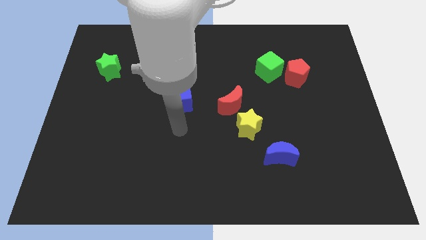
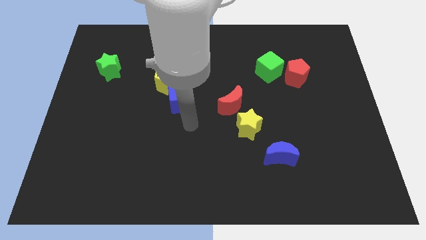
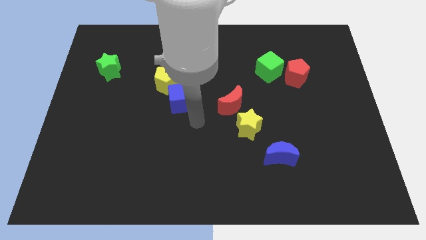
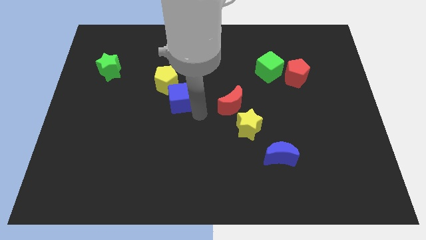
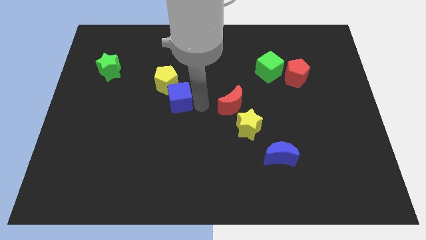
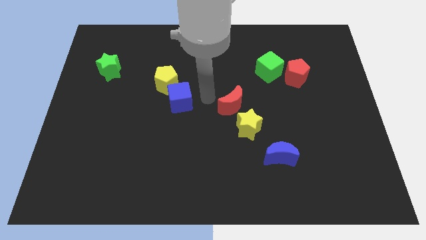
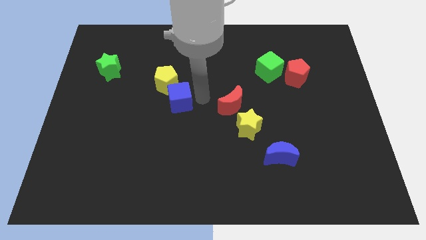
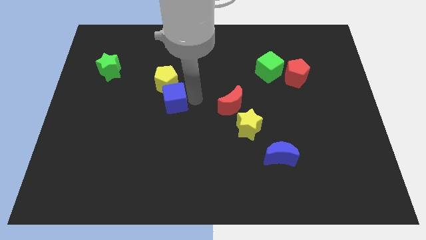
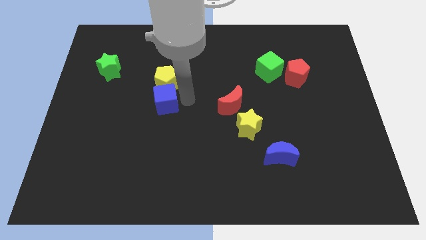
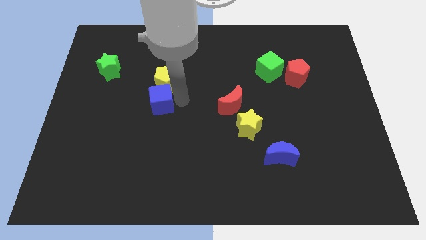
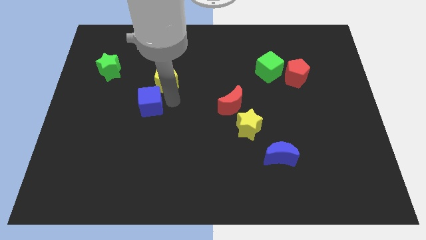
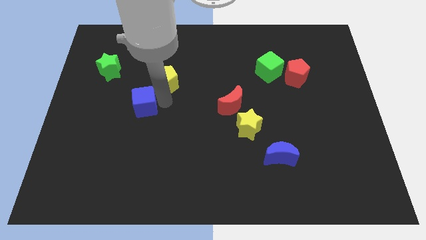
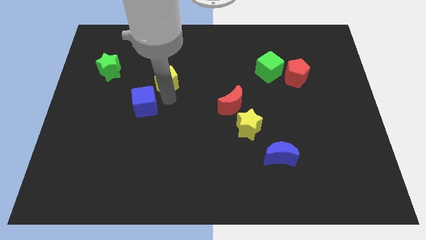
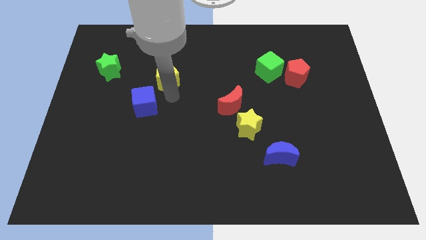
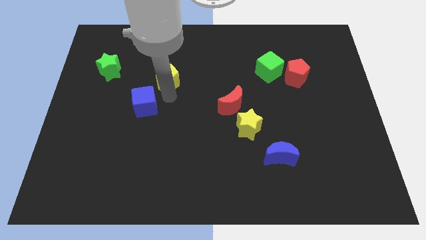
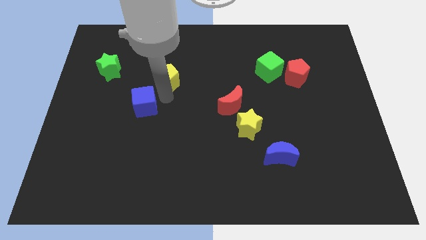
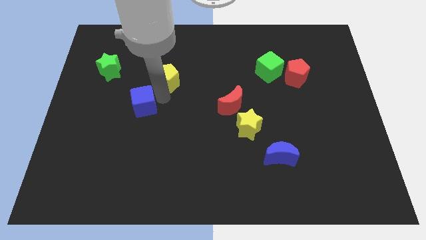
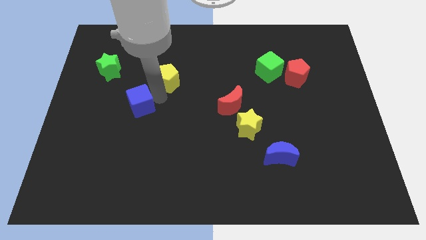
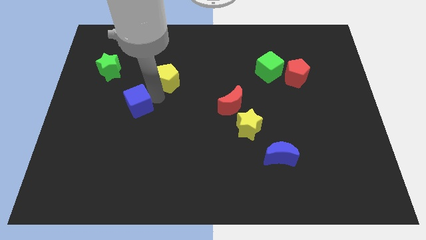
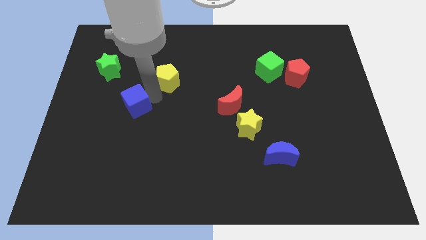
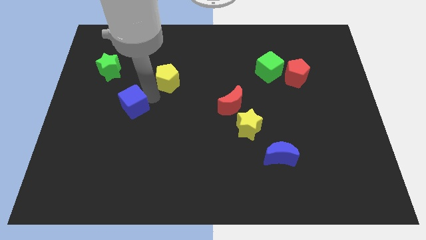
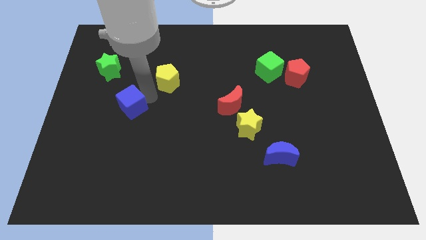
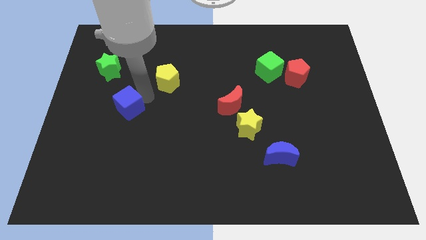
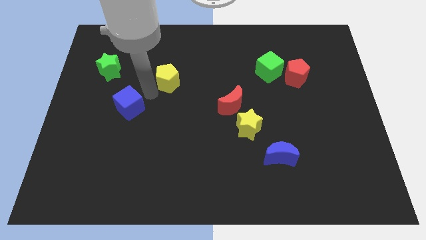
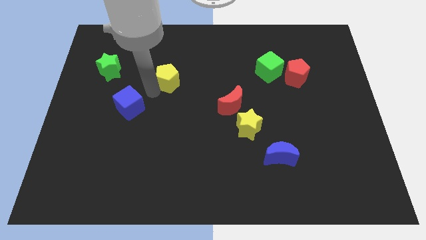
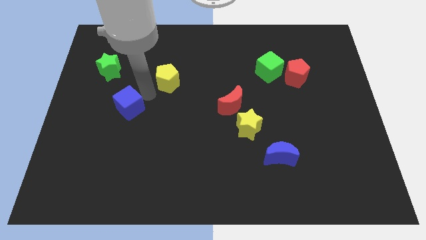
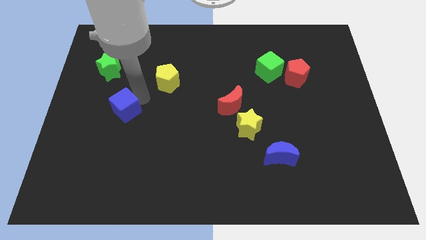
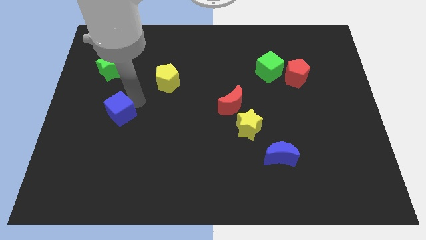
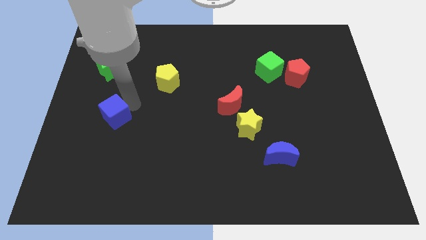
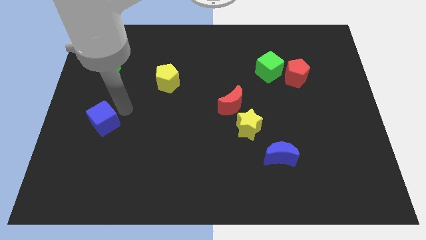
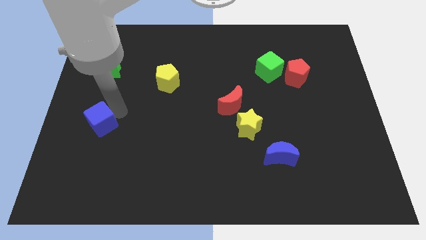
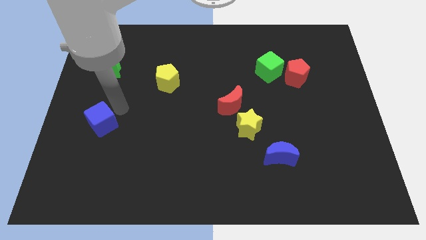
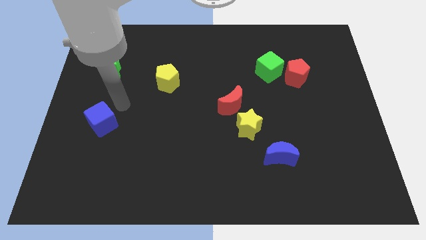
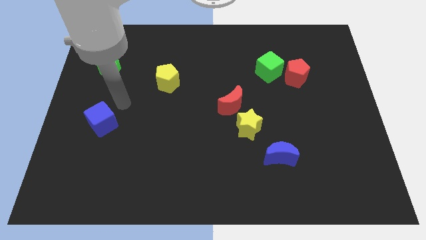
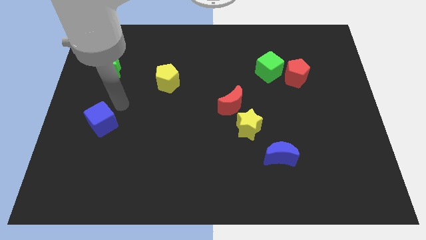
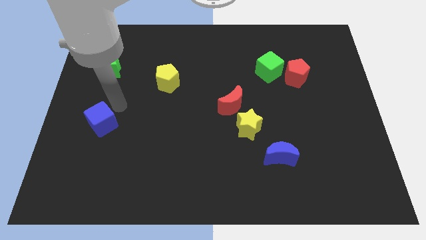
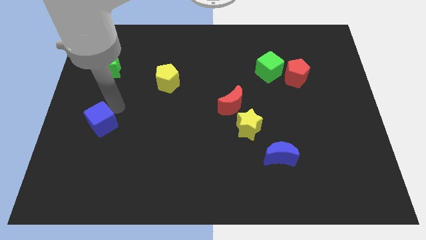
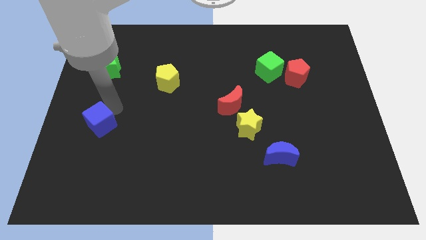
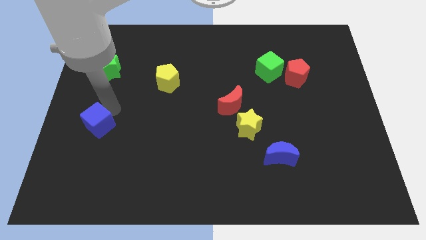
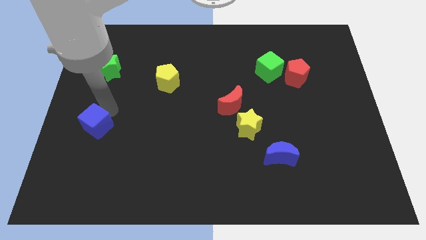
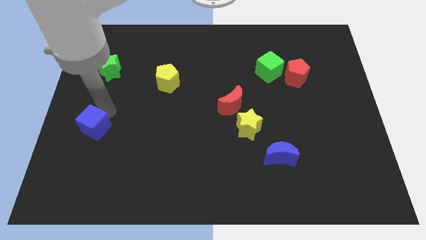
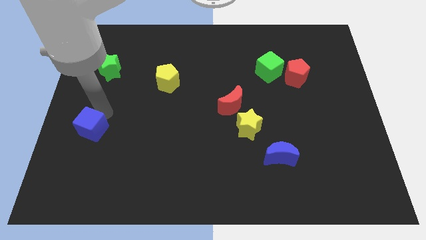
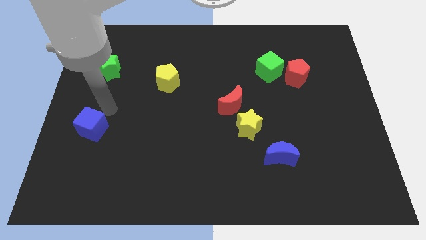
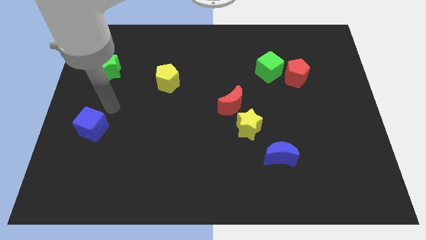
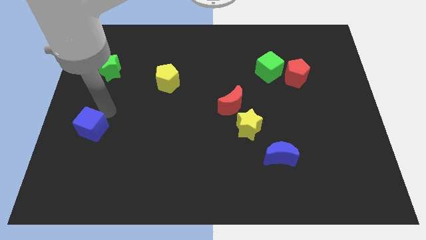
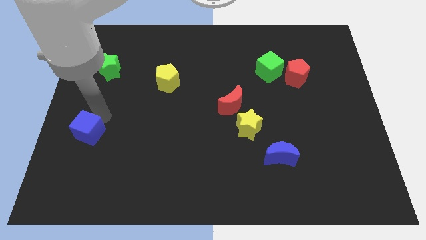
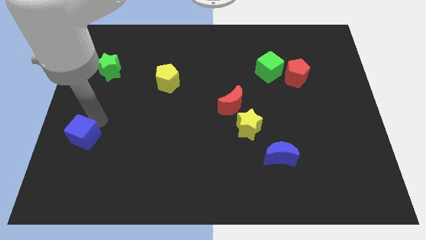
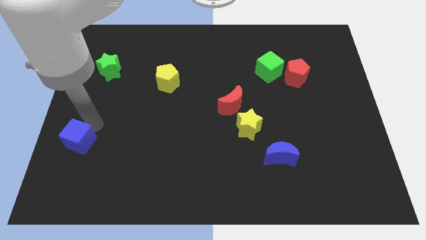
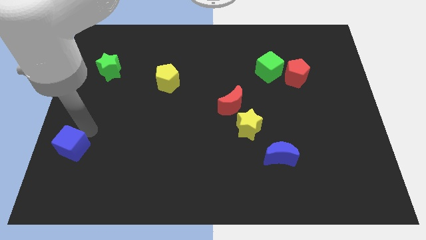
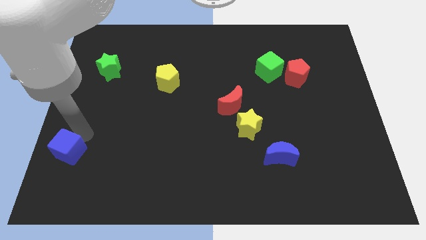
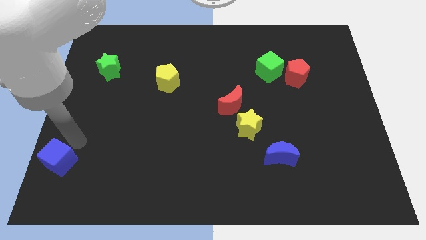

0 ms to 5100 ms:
move the blue cube to the lower left corner

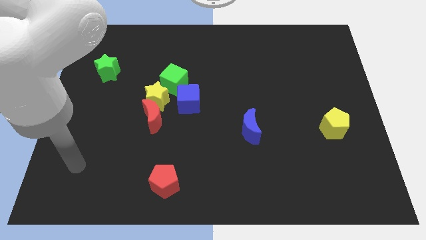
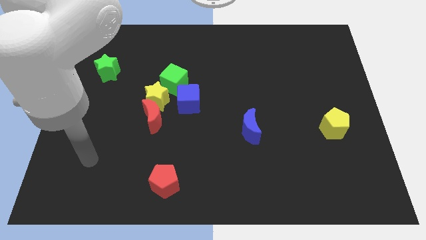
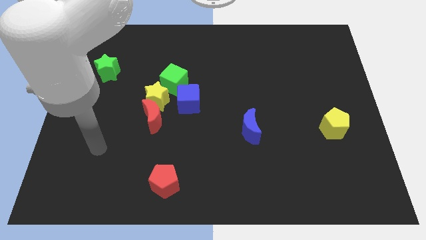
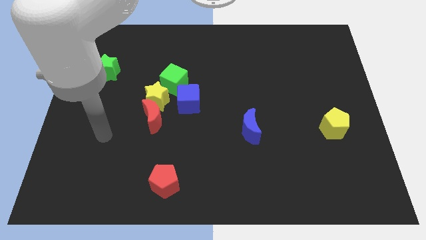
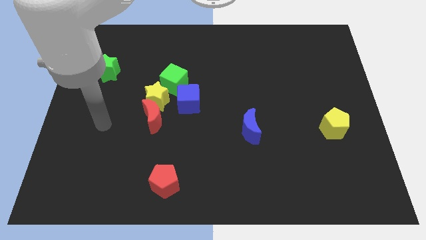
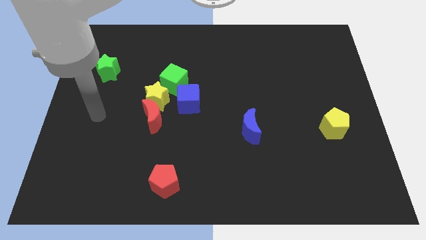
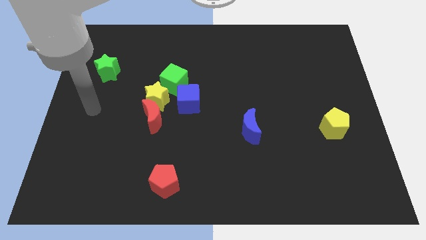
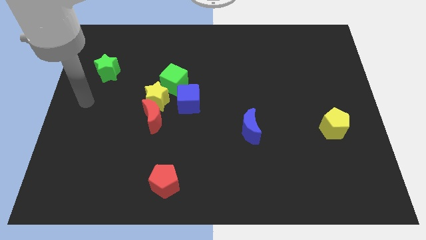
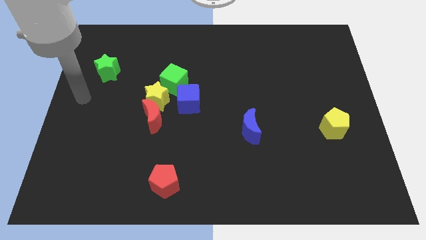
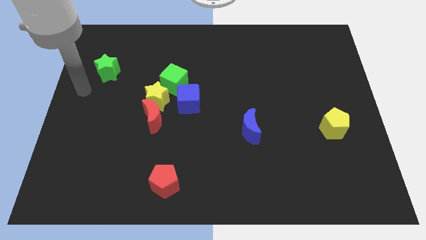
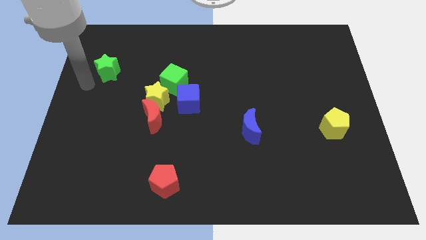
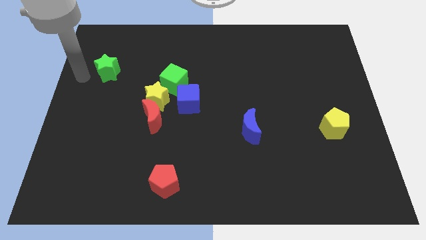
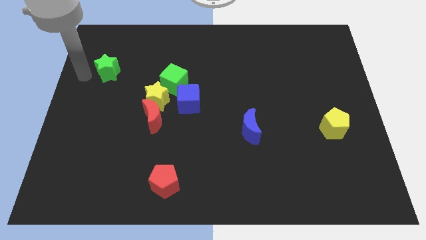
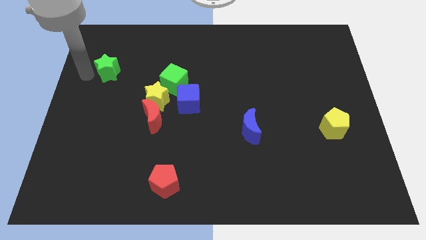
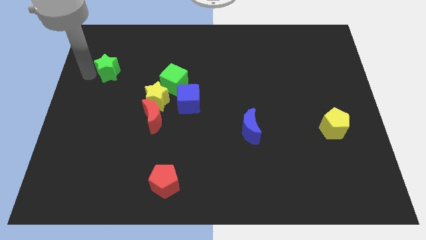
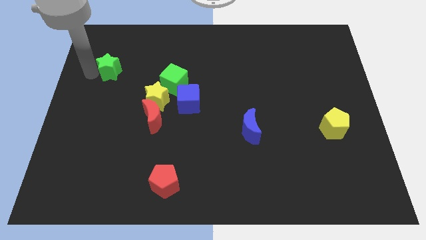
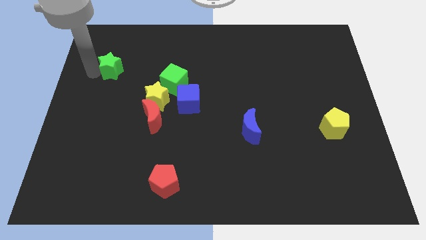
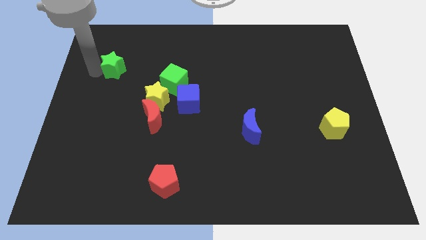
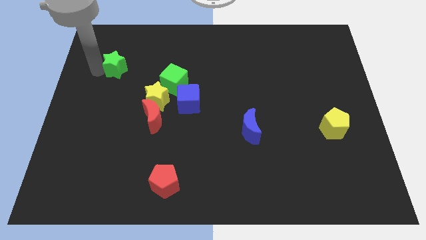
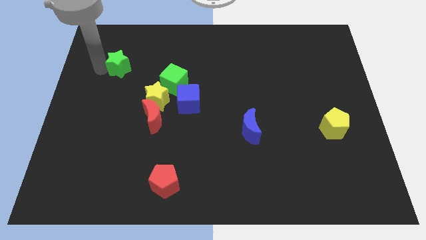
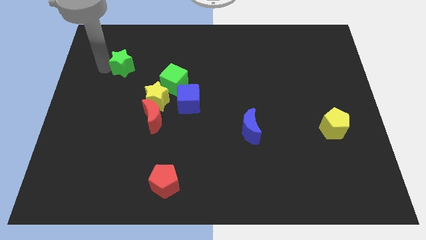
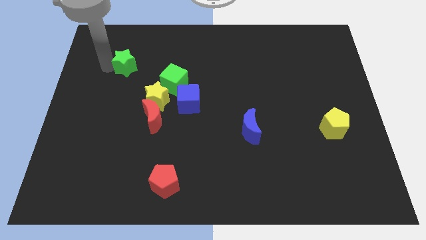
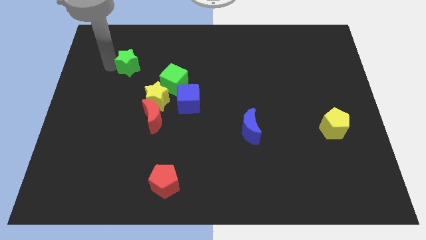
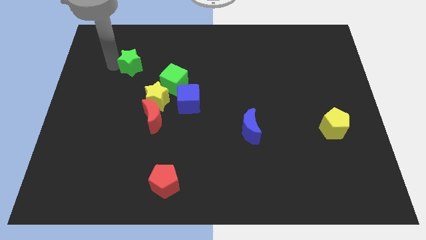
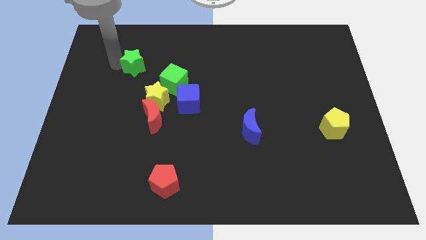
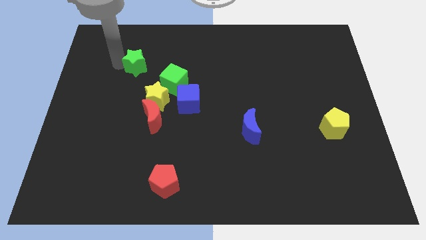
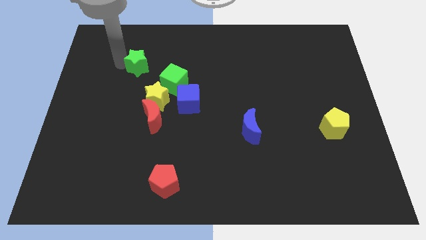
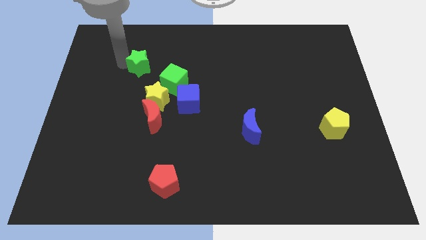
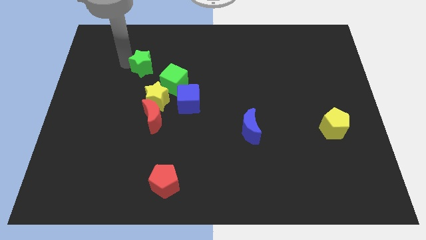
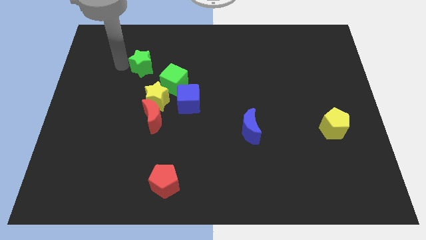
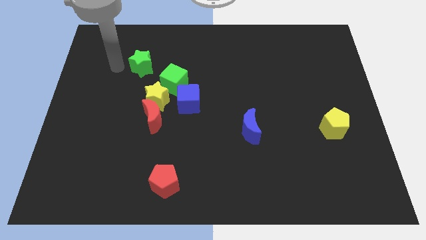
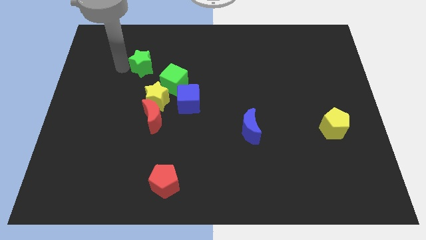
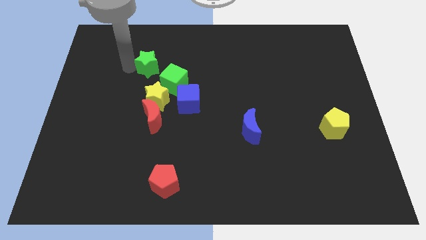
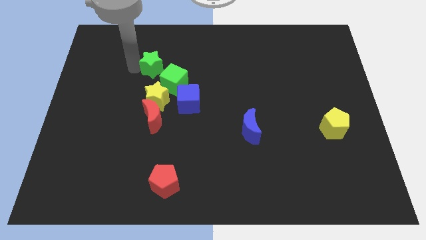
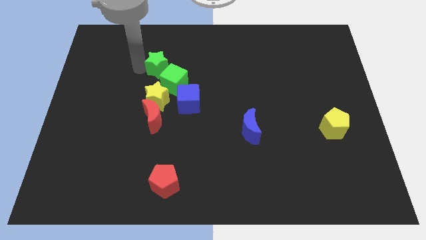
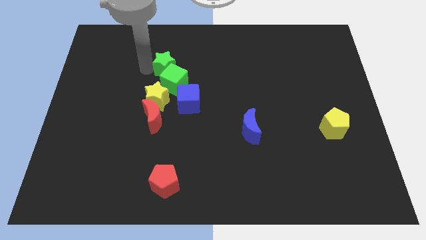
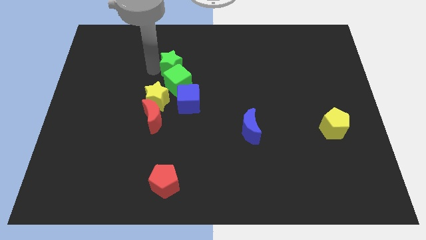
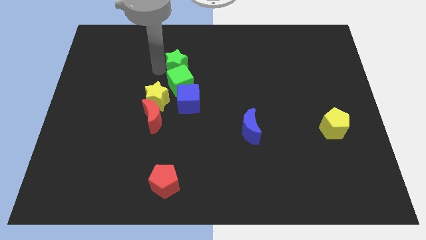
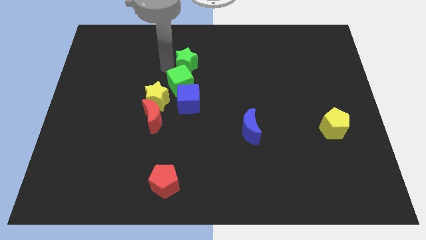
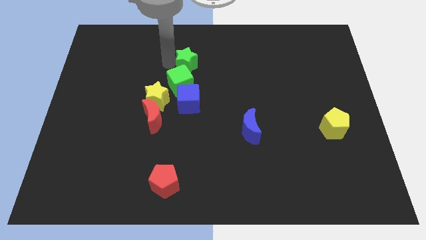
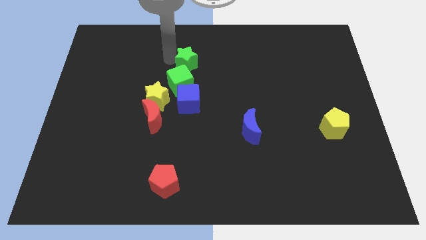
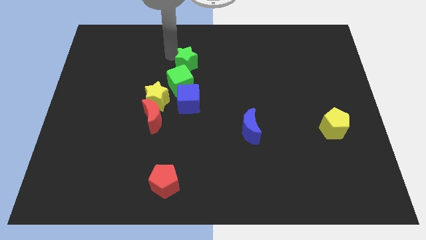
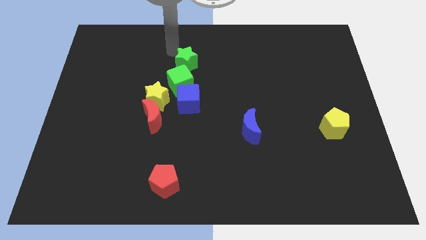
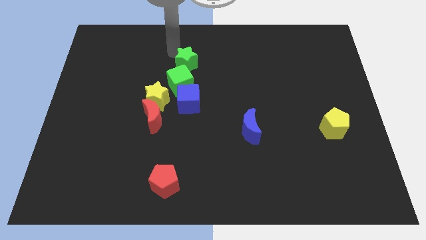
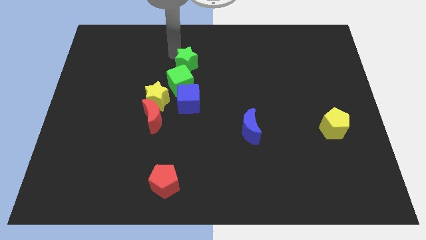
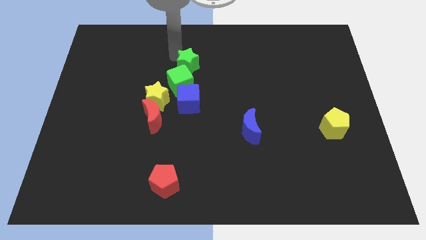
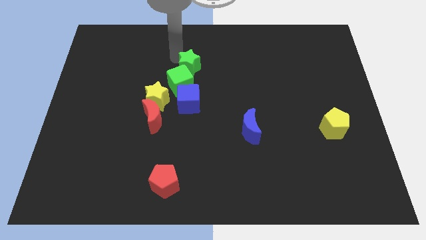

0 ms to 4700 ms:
slide the green star to the middle of the board
